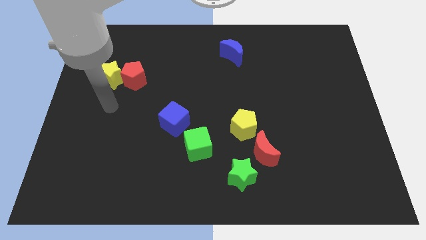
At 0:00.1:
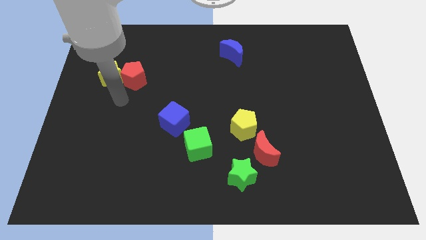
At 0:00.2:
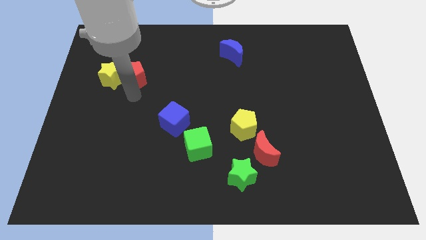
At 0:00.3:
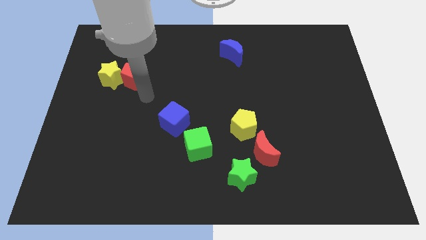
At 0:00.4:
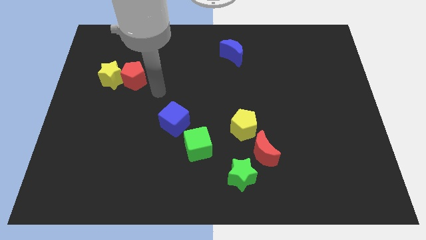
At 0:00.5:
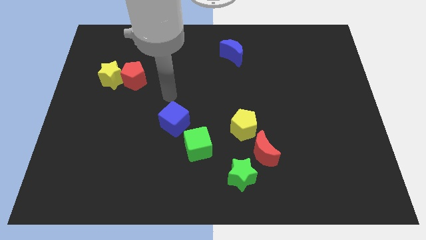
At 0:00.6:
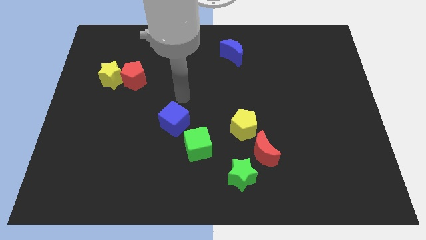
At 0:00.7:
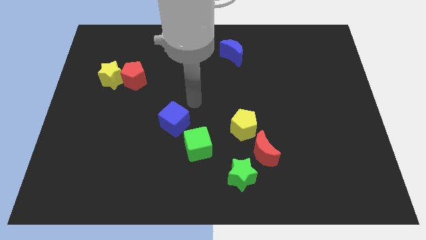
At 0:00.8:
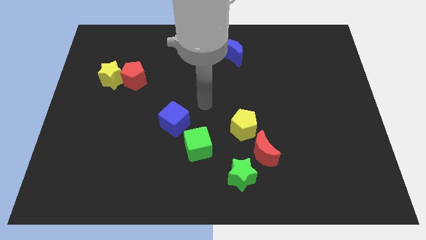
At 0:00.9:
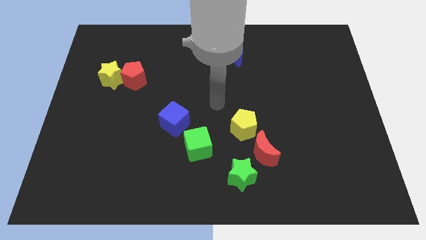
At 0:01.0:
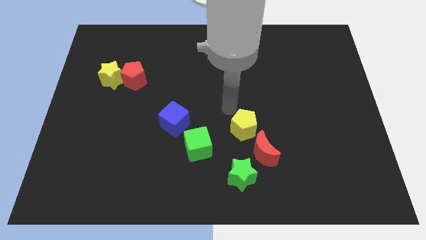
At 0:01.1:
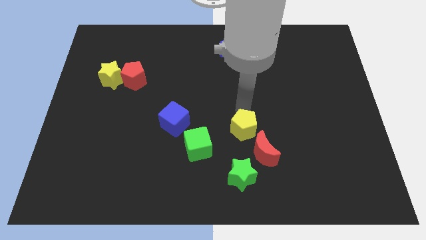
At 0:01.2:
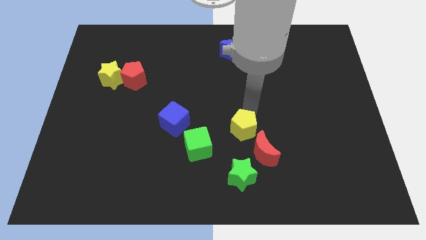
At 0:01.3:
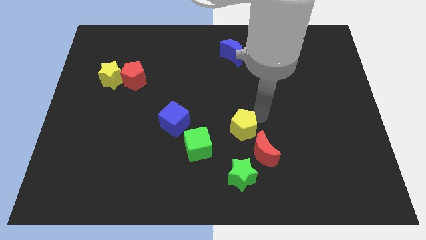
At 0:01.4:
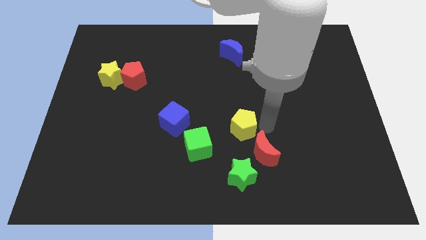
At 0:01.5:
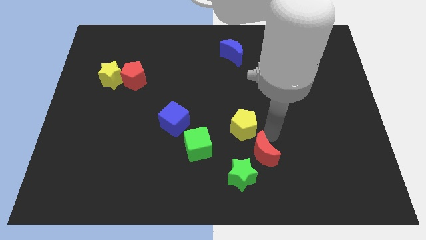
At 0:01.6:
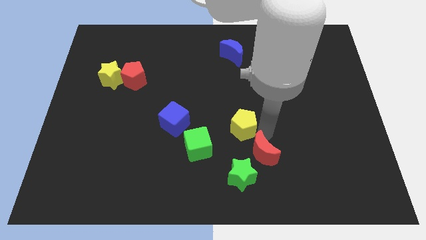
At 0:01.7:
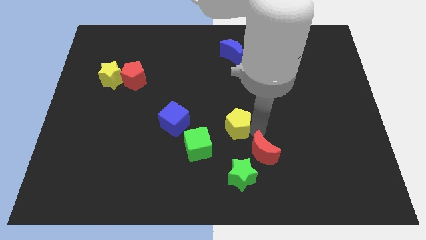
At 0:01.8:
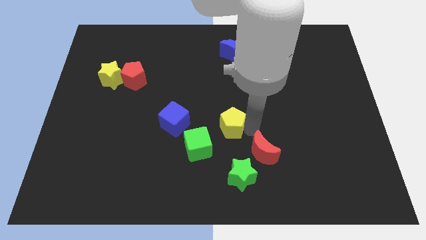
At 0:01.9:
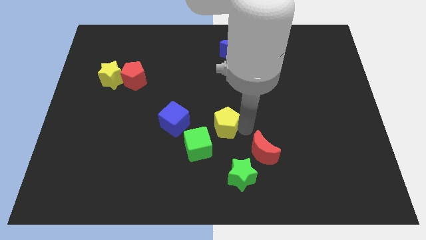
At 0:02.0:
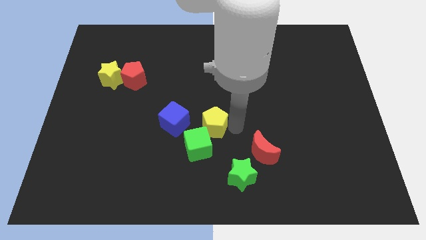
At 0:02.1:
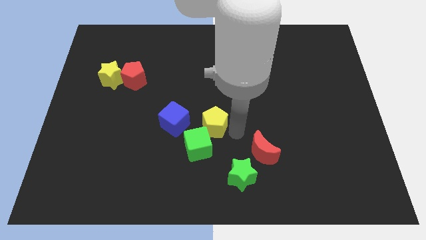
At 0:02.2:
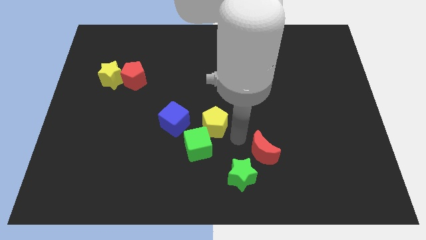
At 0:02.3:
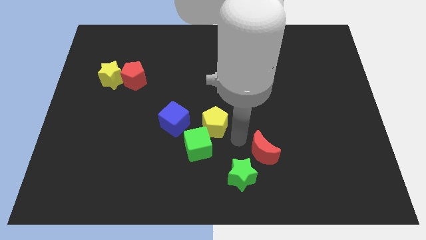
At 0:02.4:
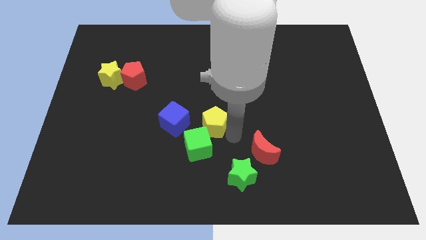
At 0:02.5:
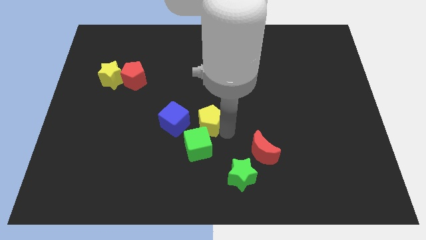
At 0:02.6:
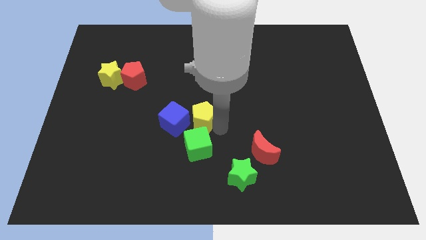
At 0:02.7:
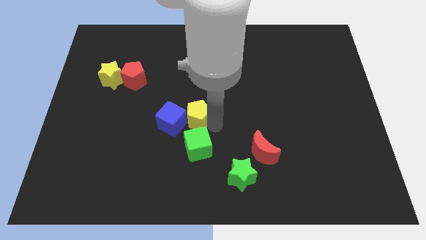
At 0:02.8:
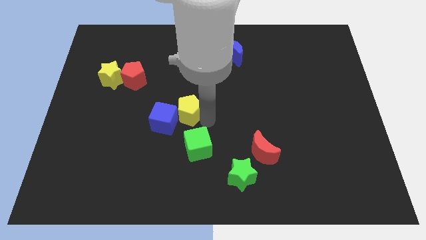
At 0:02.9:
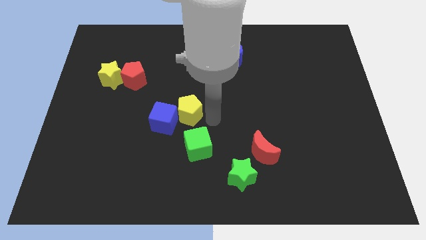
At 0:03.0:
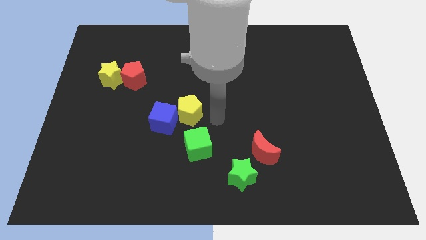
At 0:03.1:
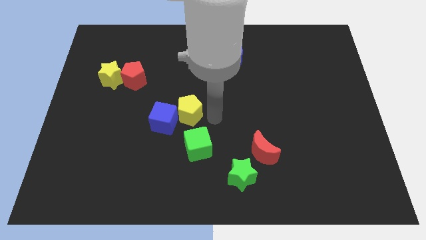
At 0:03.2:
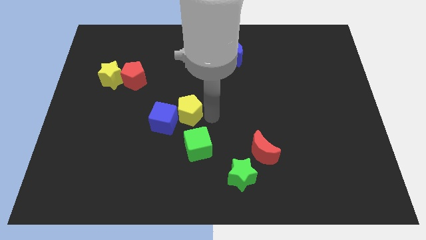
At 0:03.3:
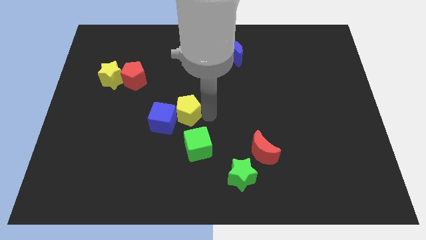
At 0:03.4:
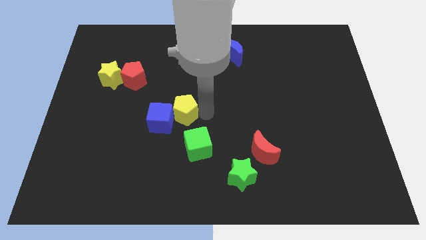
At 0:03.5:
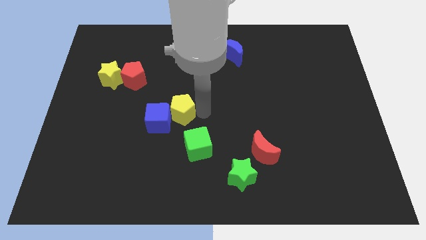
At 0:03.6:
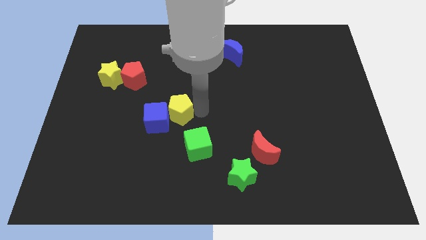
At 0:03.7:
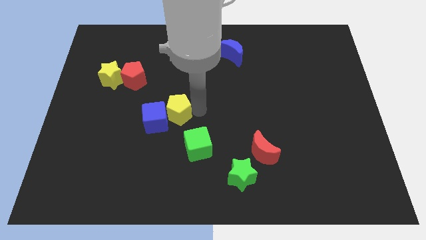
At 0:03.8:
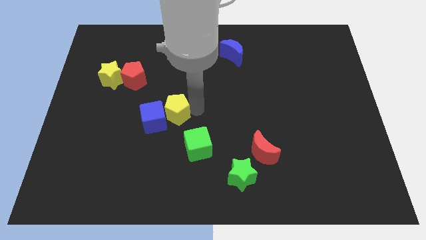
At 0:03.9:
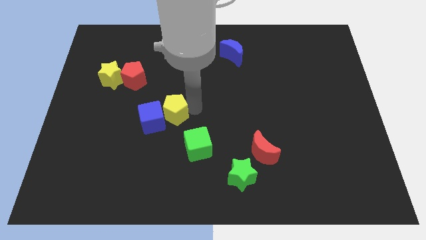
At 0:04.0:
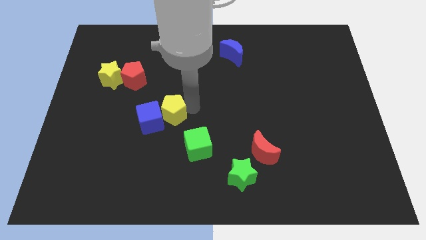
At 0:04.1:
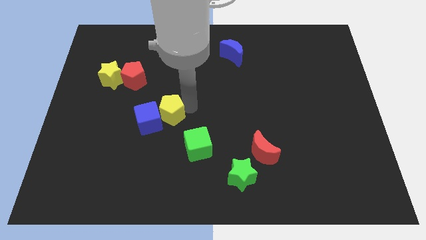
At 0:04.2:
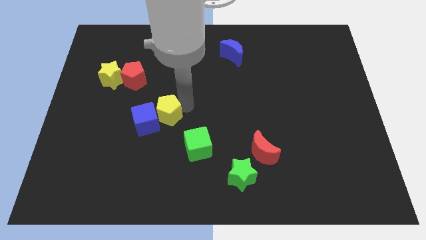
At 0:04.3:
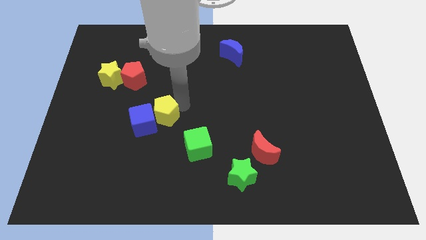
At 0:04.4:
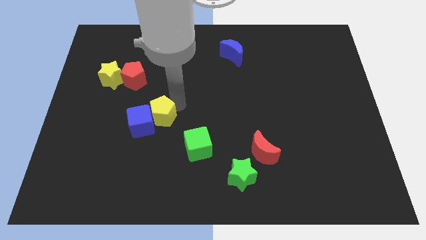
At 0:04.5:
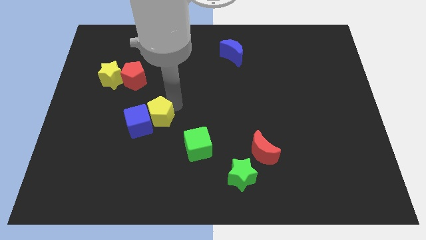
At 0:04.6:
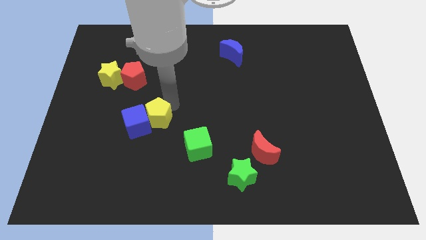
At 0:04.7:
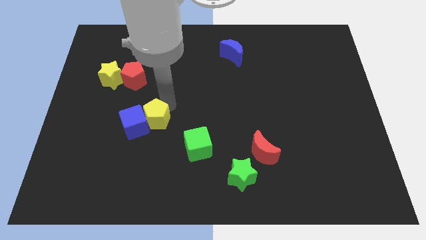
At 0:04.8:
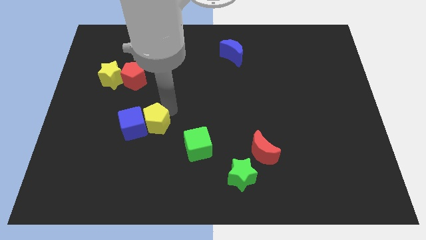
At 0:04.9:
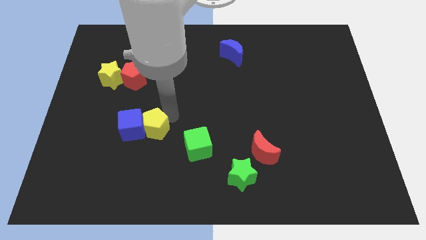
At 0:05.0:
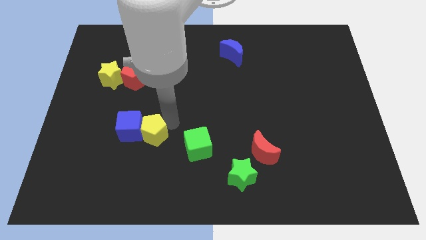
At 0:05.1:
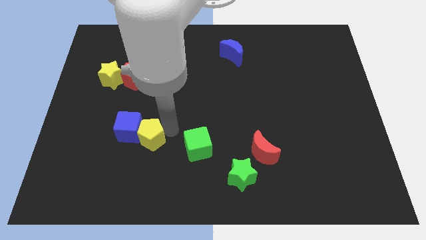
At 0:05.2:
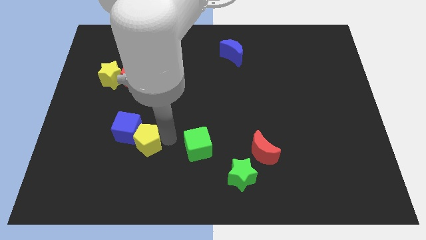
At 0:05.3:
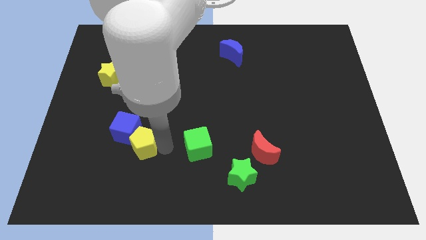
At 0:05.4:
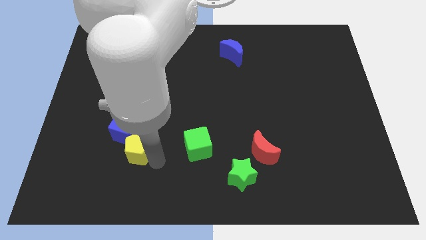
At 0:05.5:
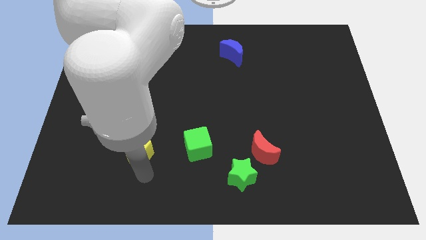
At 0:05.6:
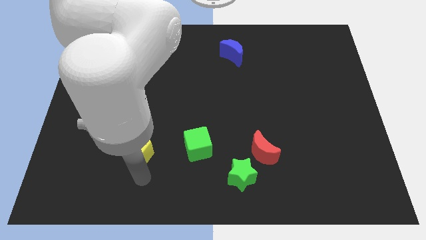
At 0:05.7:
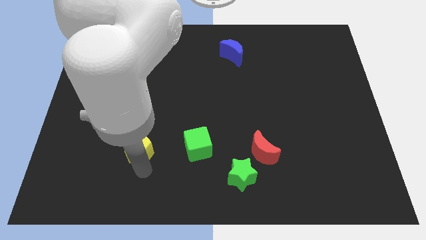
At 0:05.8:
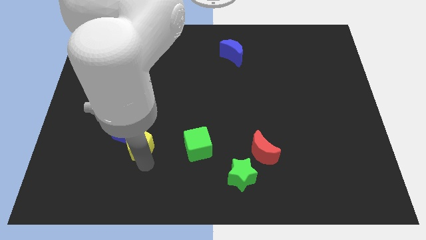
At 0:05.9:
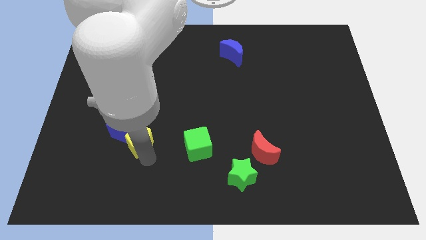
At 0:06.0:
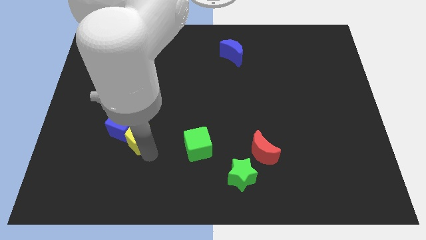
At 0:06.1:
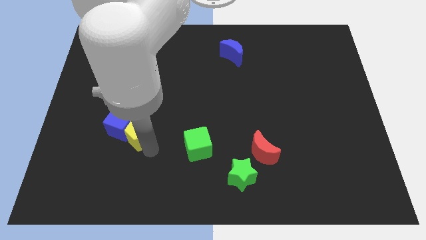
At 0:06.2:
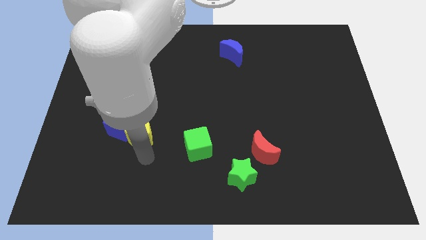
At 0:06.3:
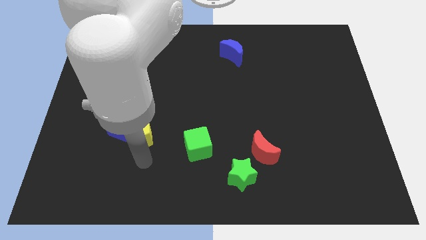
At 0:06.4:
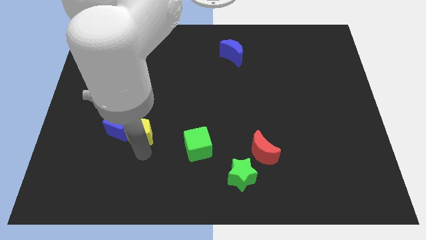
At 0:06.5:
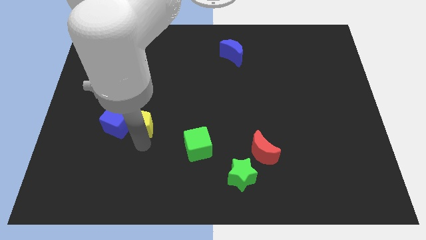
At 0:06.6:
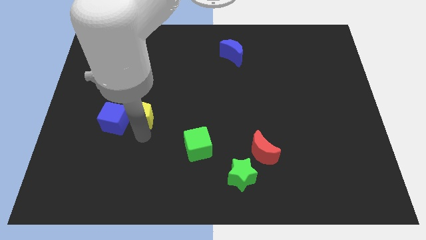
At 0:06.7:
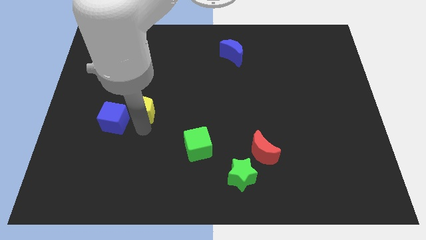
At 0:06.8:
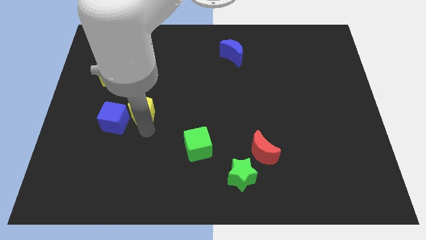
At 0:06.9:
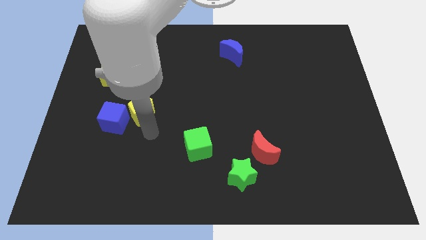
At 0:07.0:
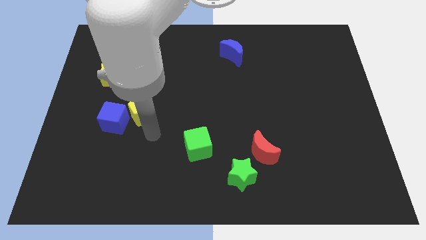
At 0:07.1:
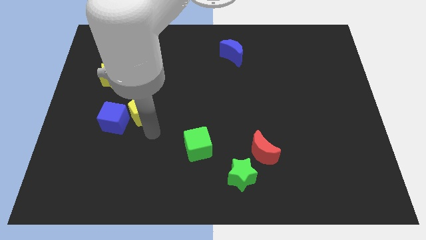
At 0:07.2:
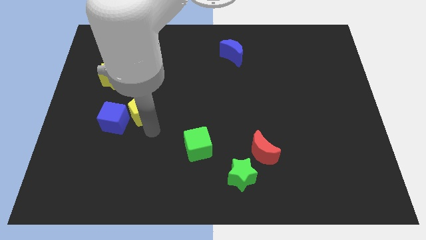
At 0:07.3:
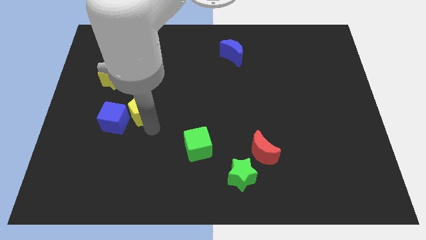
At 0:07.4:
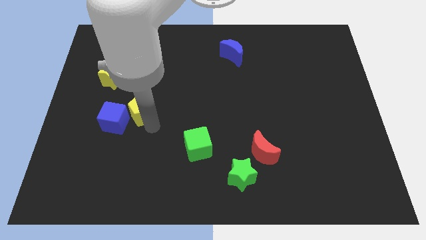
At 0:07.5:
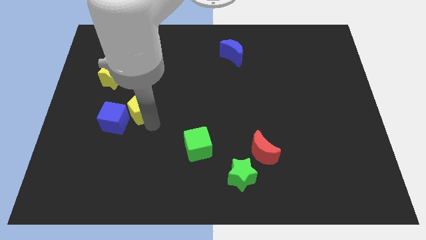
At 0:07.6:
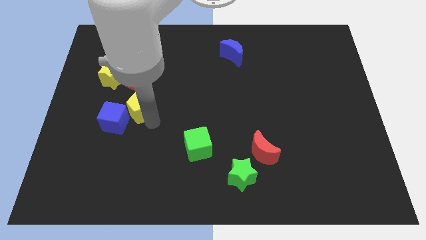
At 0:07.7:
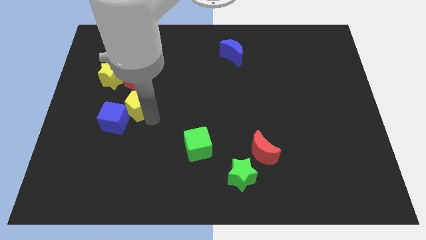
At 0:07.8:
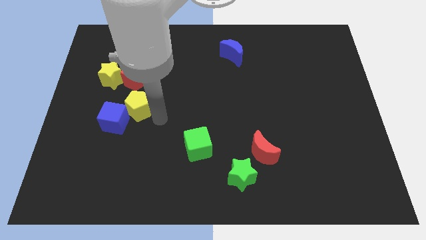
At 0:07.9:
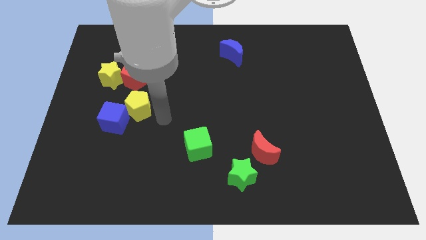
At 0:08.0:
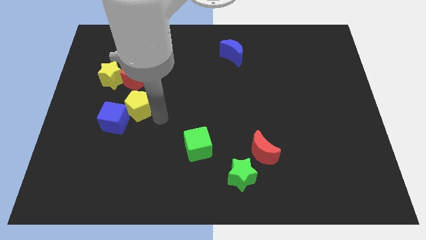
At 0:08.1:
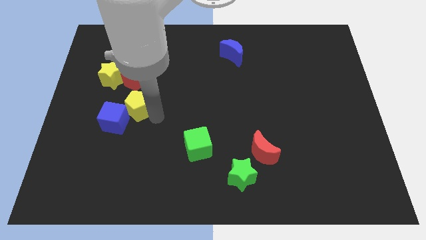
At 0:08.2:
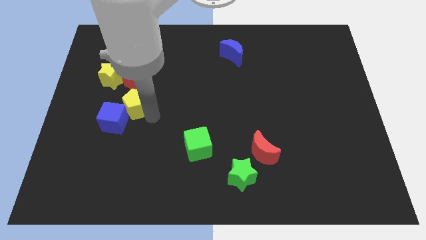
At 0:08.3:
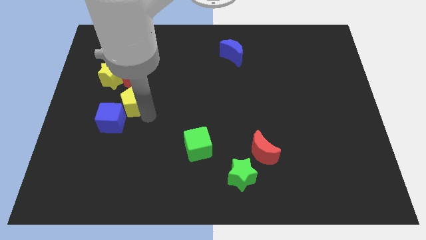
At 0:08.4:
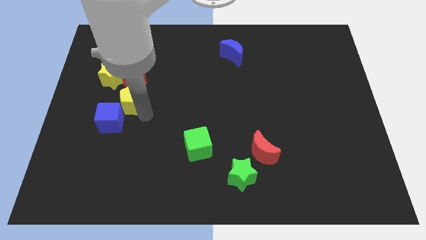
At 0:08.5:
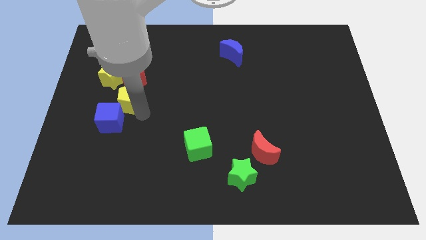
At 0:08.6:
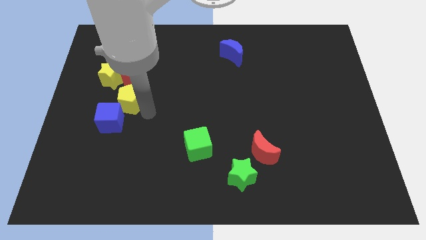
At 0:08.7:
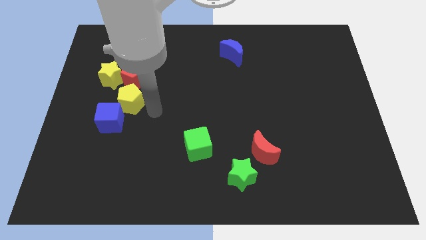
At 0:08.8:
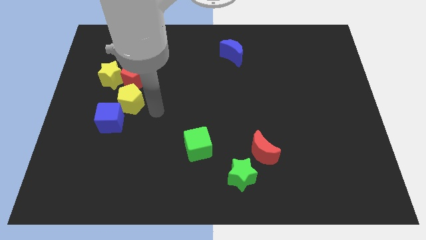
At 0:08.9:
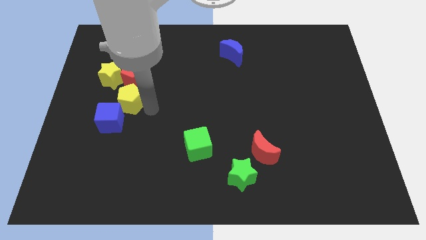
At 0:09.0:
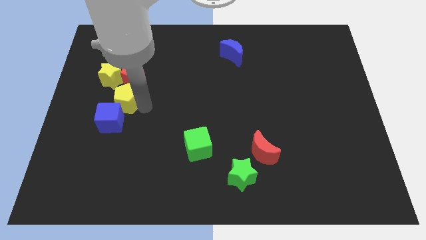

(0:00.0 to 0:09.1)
put the yellow pentagon to the bottom left of the red pentagon
